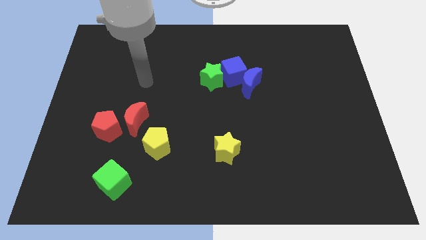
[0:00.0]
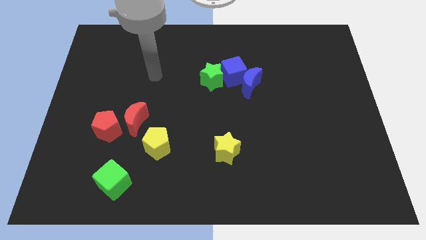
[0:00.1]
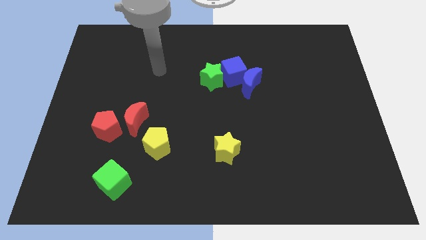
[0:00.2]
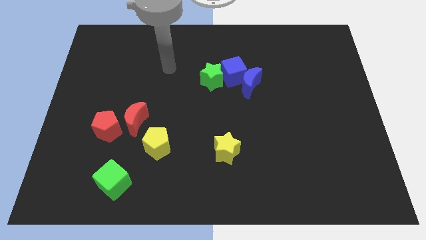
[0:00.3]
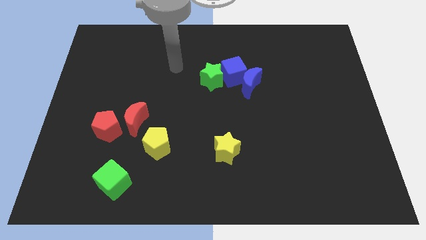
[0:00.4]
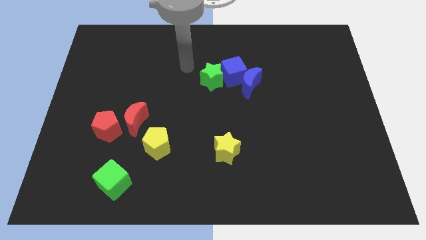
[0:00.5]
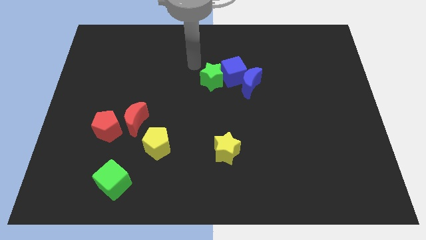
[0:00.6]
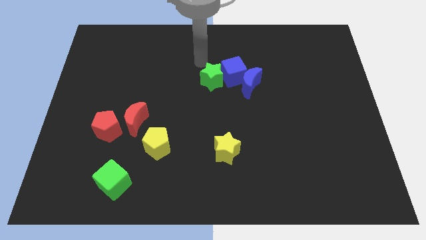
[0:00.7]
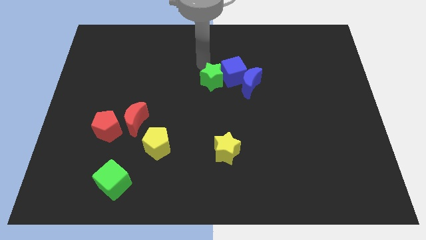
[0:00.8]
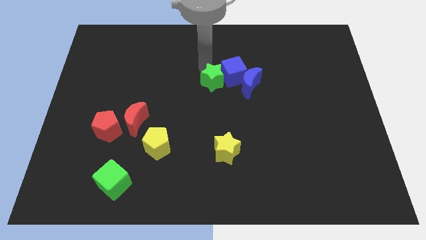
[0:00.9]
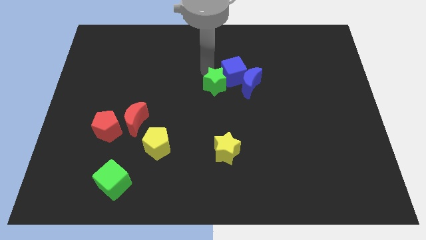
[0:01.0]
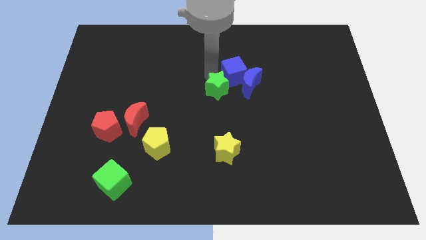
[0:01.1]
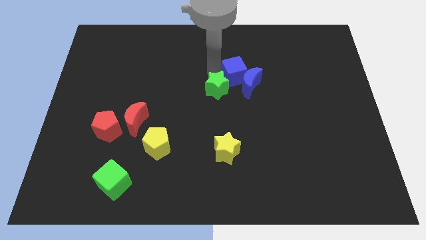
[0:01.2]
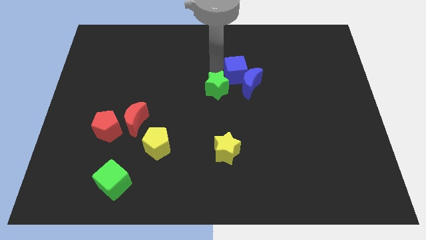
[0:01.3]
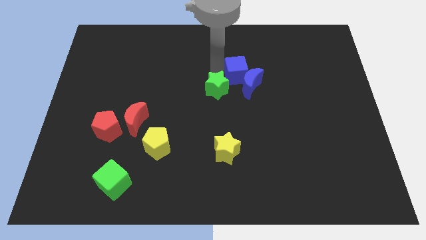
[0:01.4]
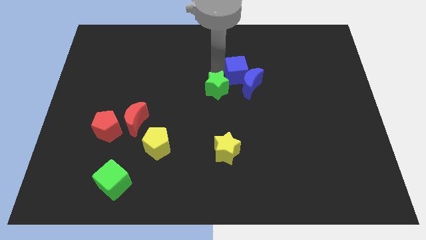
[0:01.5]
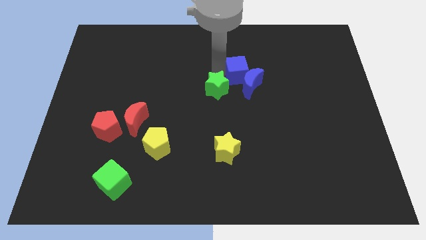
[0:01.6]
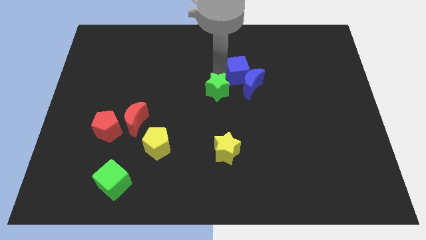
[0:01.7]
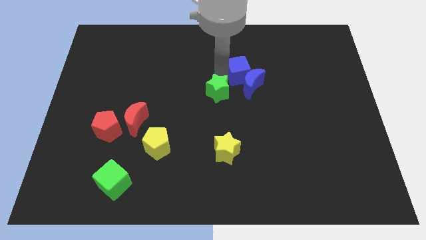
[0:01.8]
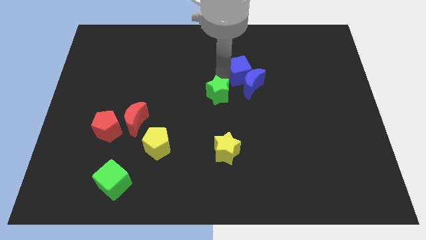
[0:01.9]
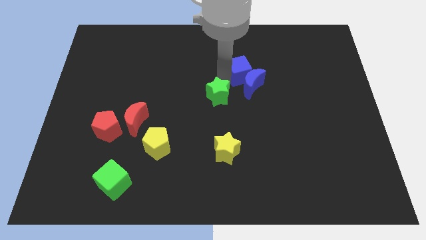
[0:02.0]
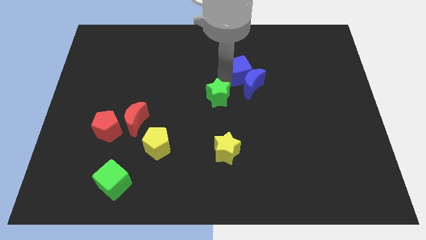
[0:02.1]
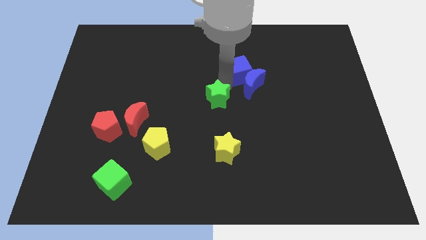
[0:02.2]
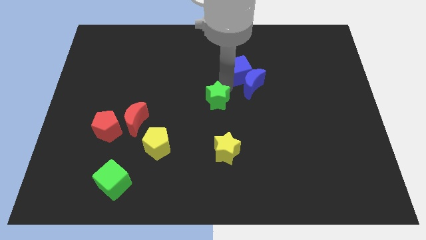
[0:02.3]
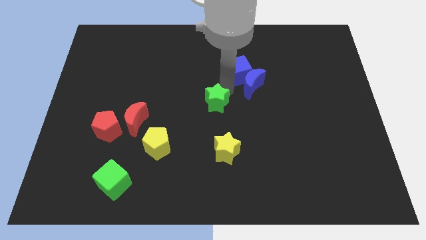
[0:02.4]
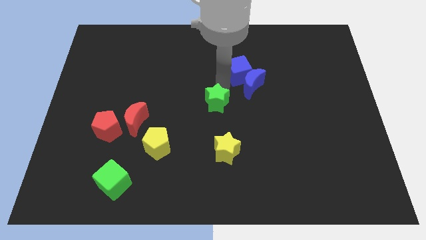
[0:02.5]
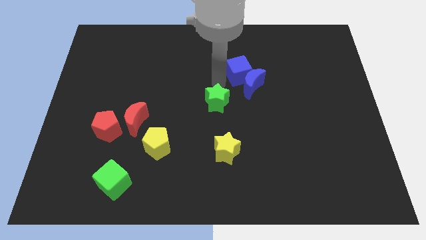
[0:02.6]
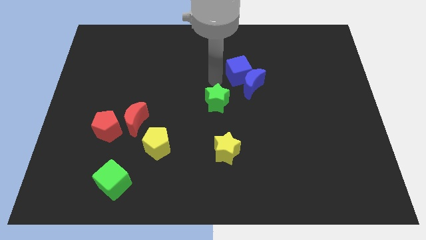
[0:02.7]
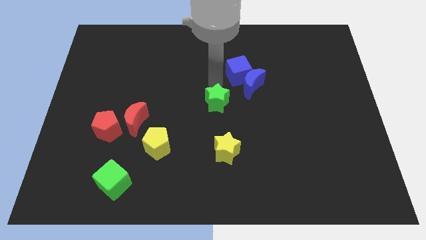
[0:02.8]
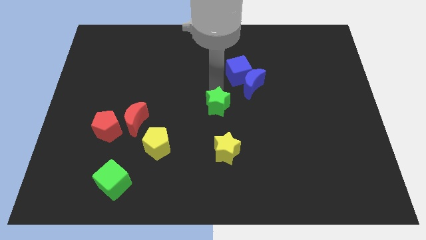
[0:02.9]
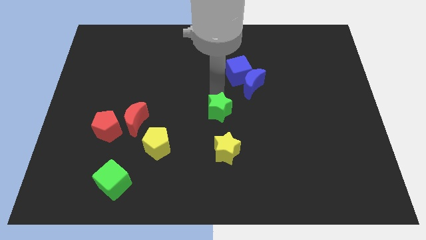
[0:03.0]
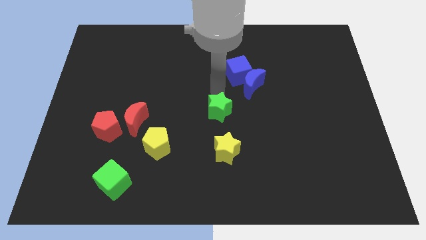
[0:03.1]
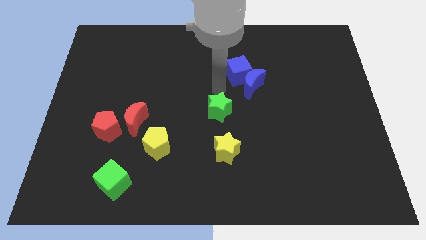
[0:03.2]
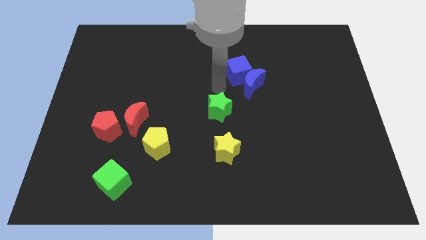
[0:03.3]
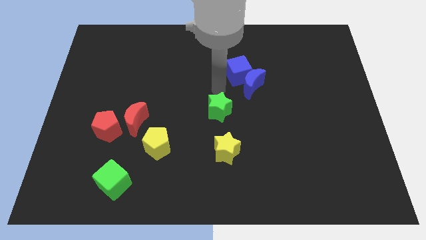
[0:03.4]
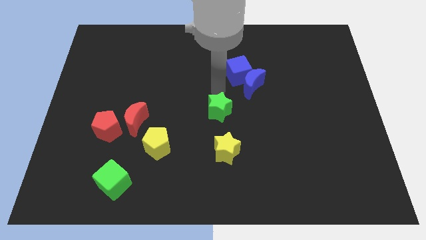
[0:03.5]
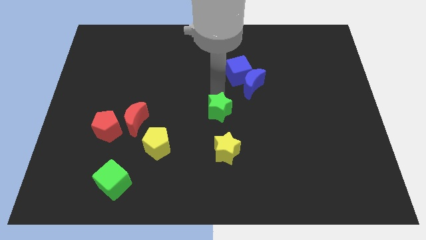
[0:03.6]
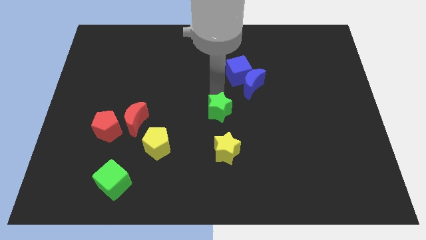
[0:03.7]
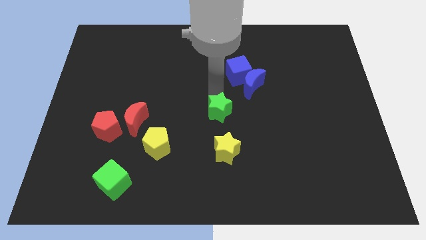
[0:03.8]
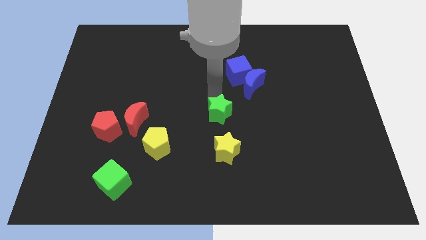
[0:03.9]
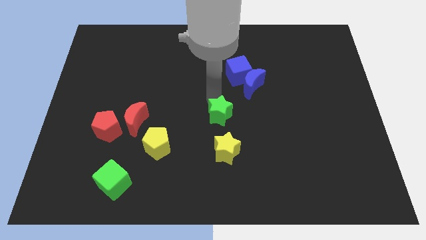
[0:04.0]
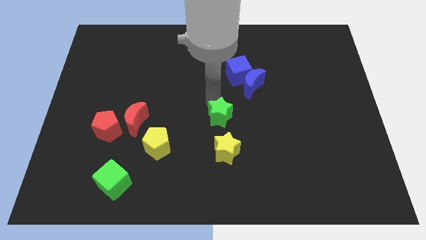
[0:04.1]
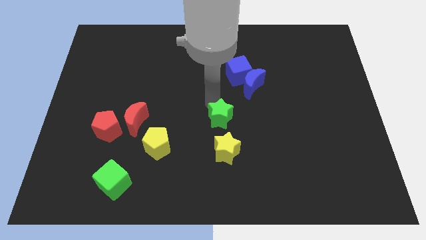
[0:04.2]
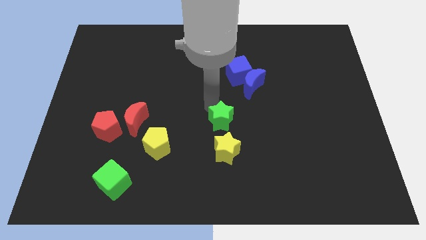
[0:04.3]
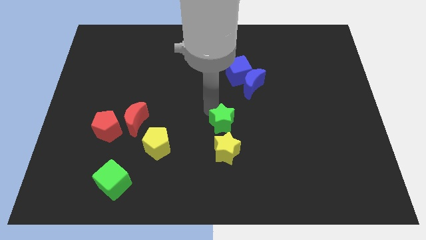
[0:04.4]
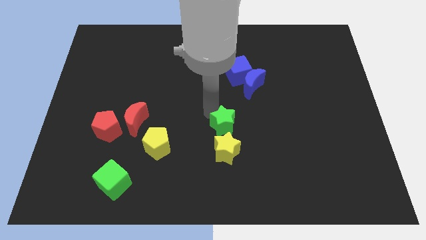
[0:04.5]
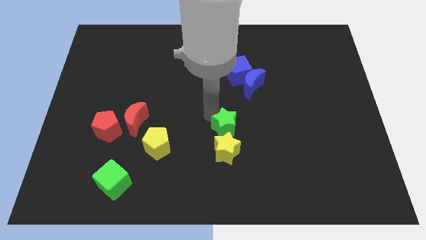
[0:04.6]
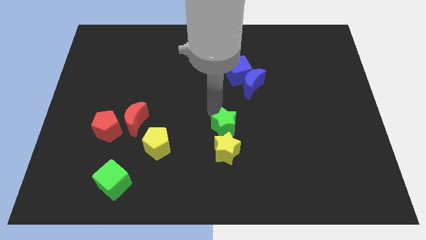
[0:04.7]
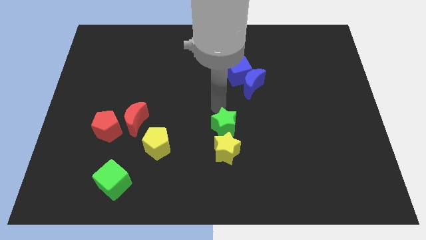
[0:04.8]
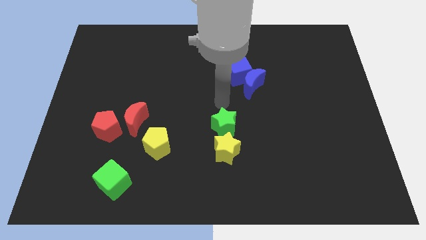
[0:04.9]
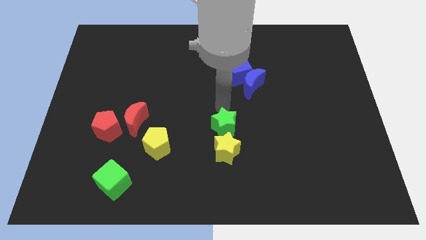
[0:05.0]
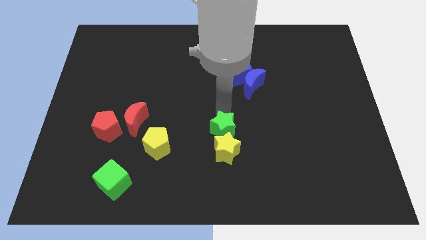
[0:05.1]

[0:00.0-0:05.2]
slide the green star close to the yellow star

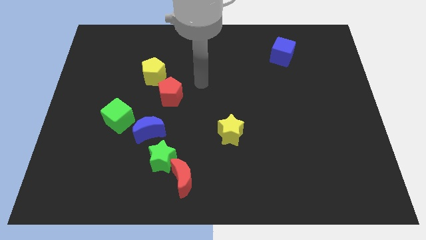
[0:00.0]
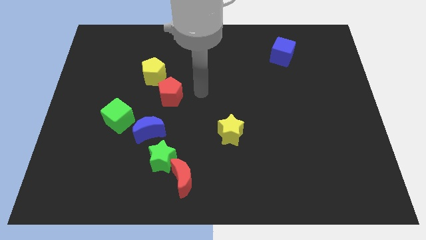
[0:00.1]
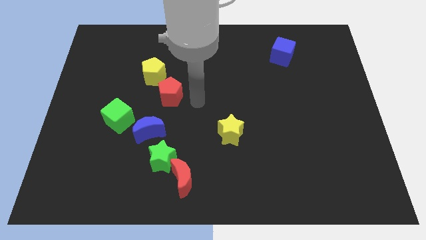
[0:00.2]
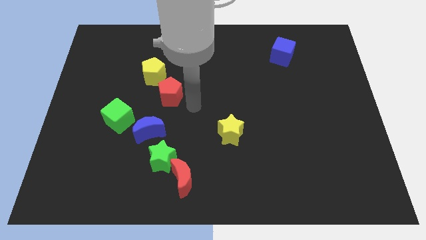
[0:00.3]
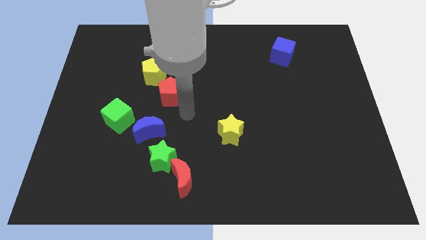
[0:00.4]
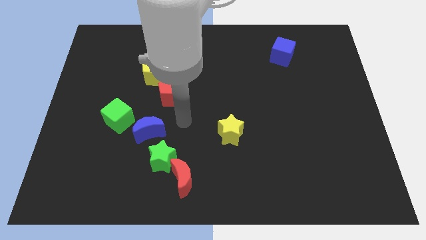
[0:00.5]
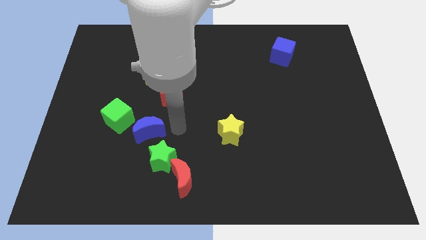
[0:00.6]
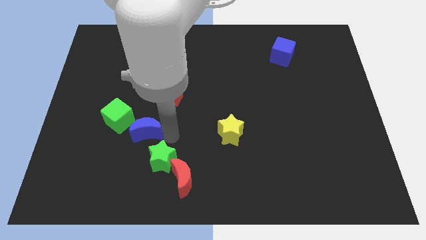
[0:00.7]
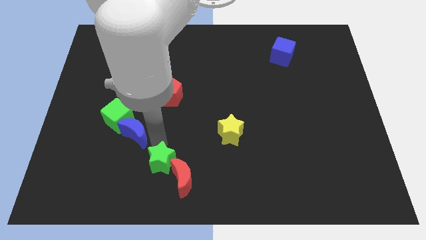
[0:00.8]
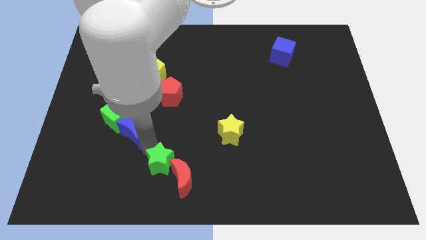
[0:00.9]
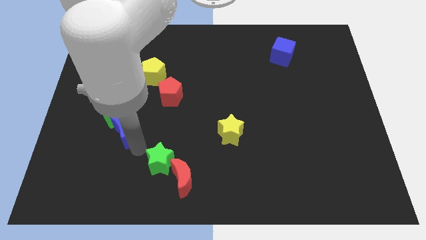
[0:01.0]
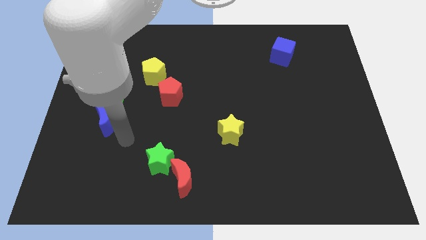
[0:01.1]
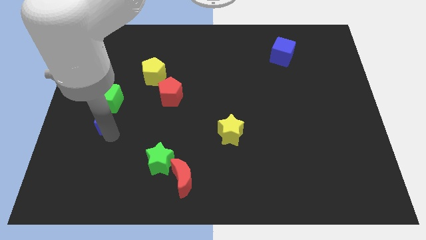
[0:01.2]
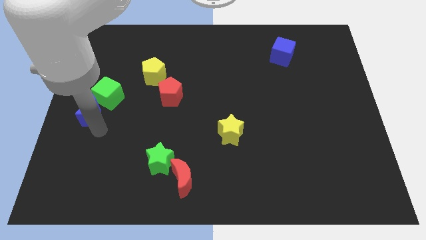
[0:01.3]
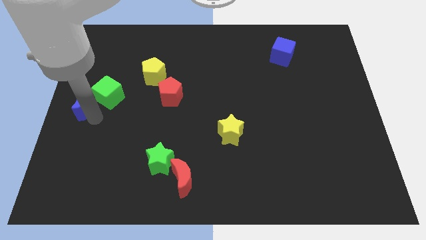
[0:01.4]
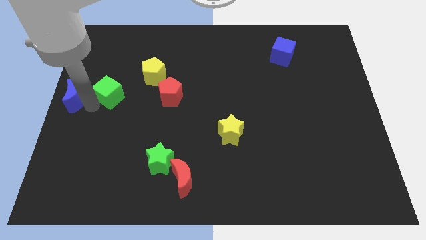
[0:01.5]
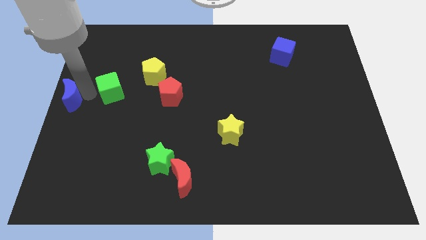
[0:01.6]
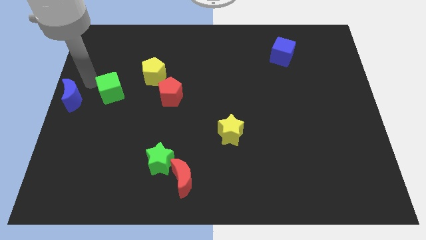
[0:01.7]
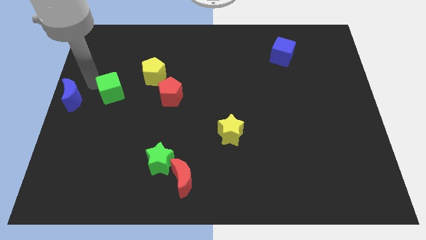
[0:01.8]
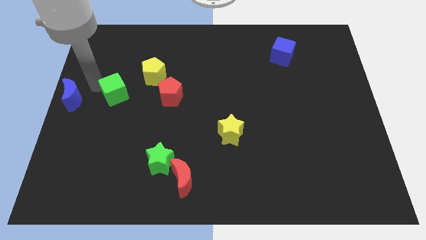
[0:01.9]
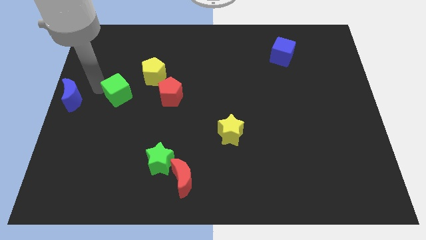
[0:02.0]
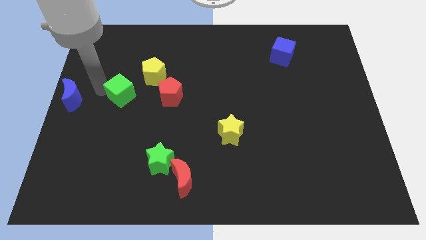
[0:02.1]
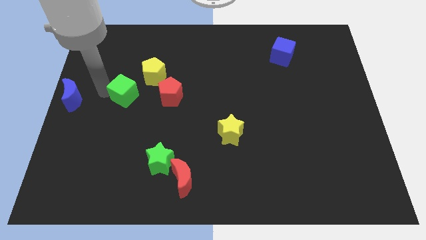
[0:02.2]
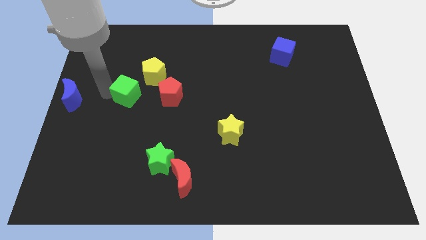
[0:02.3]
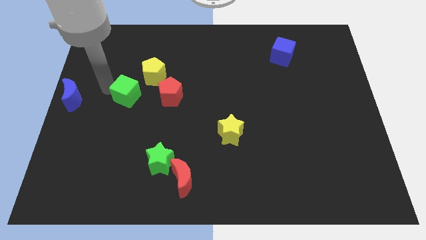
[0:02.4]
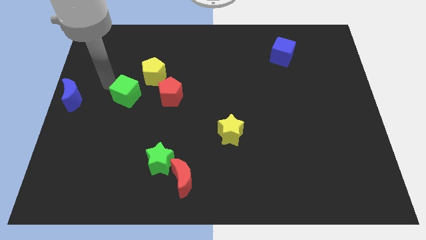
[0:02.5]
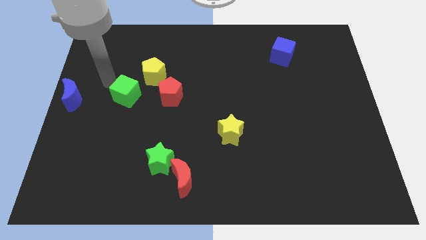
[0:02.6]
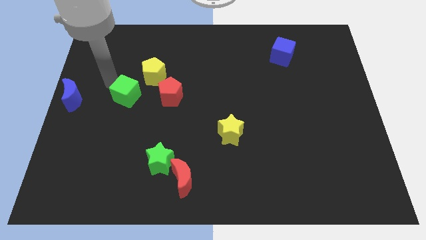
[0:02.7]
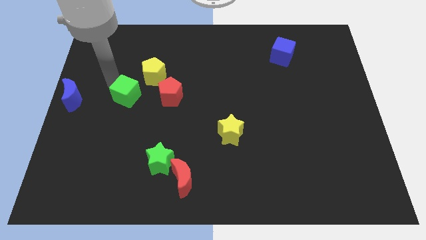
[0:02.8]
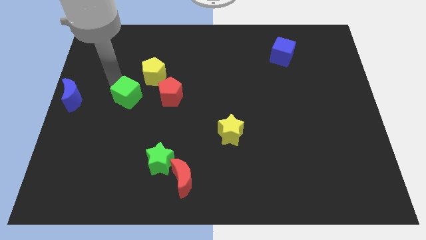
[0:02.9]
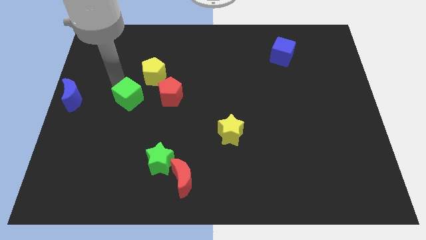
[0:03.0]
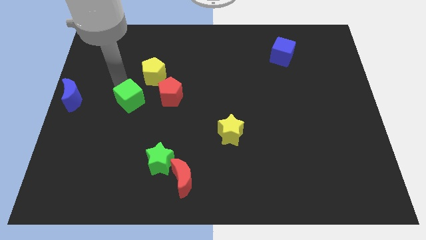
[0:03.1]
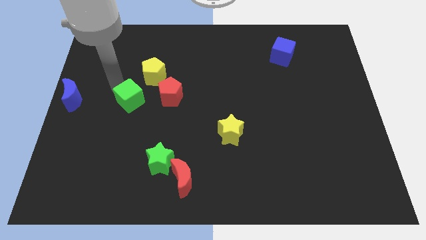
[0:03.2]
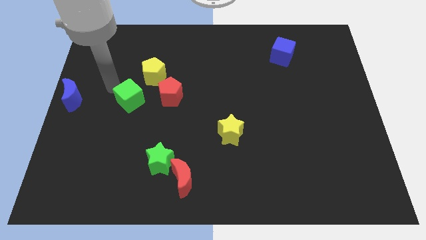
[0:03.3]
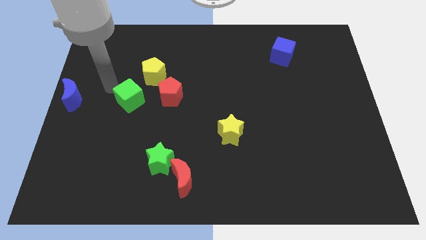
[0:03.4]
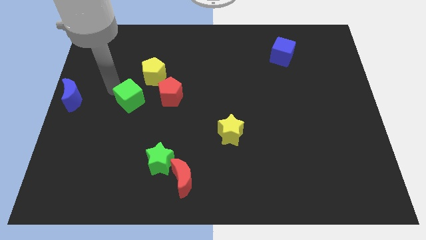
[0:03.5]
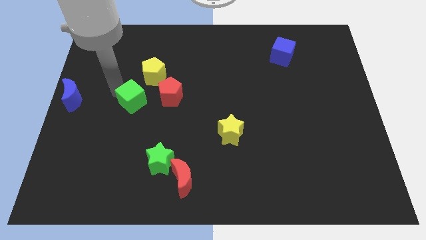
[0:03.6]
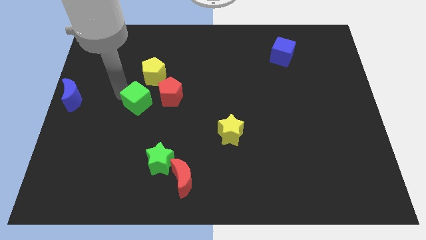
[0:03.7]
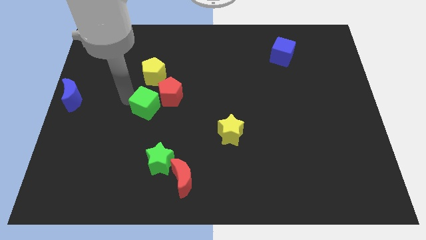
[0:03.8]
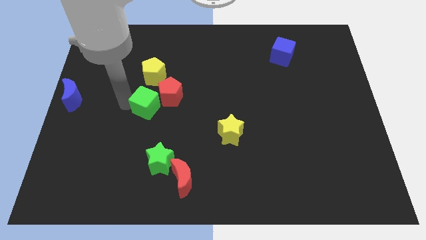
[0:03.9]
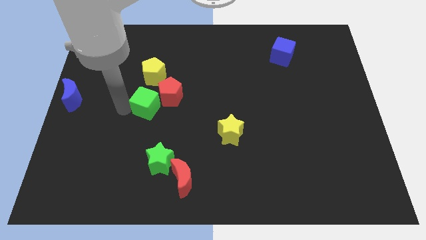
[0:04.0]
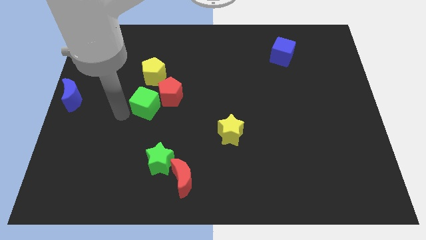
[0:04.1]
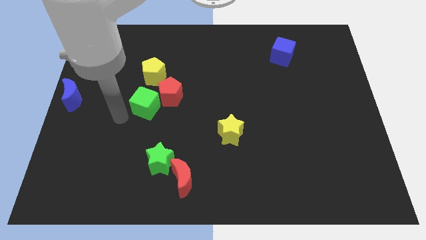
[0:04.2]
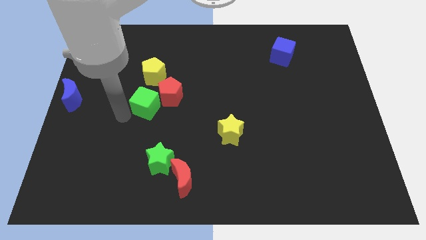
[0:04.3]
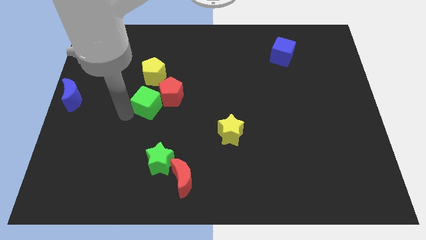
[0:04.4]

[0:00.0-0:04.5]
push the green cube next to the red pentagon
